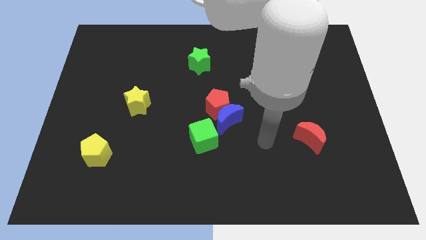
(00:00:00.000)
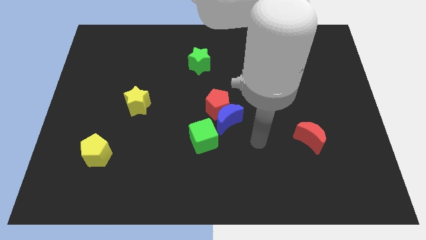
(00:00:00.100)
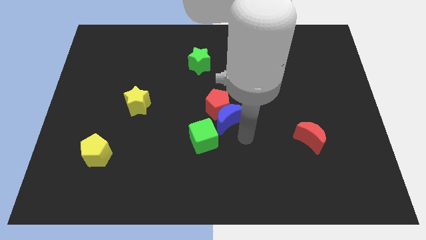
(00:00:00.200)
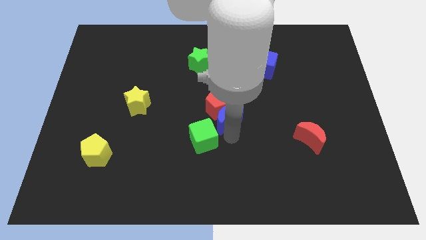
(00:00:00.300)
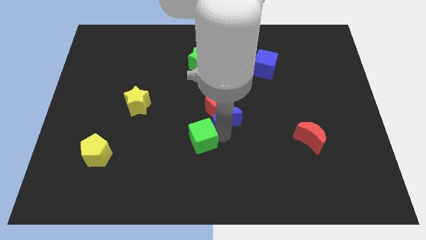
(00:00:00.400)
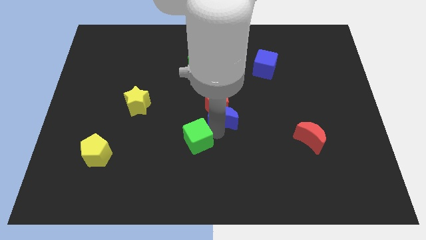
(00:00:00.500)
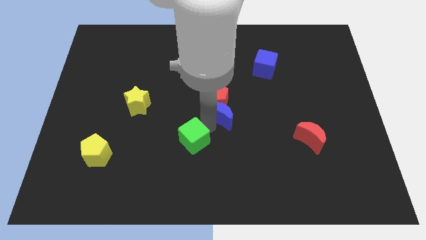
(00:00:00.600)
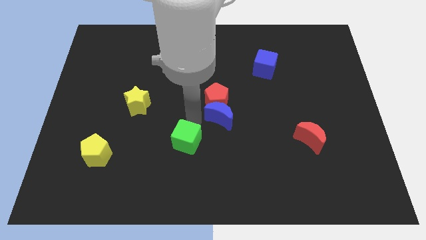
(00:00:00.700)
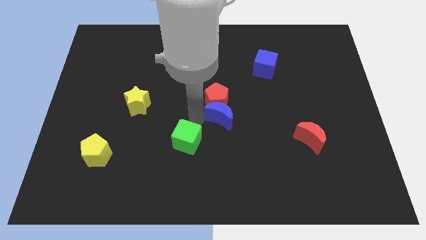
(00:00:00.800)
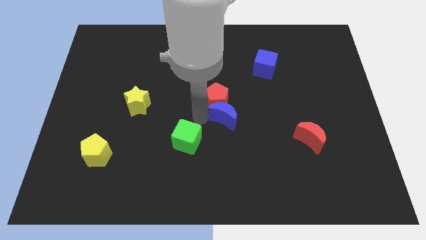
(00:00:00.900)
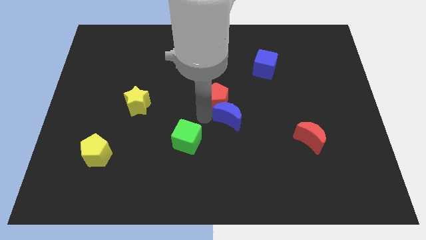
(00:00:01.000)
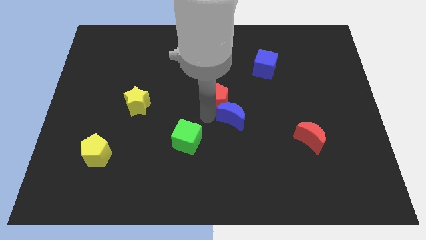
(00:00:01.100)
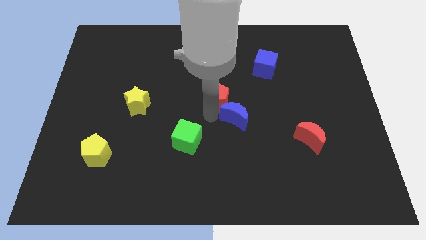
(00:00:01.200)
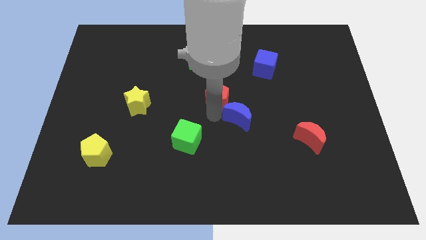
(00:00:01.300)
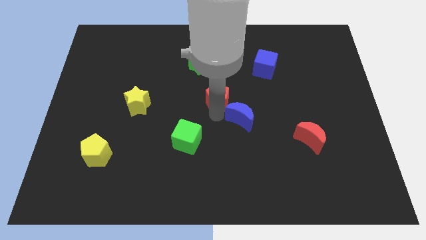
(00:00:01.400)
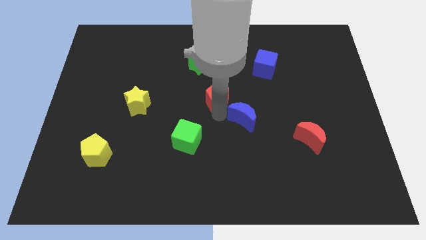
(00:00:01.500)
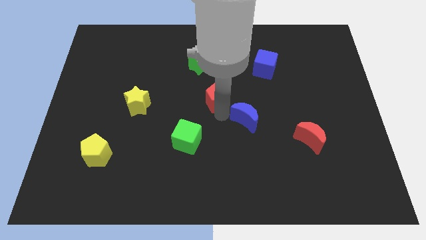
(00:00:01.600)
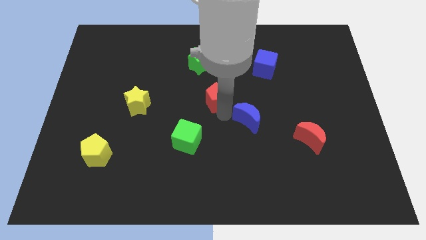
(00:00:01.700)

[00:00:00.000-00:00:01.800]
separate the blue moon from the red pentagon and green cube

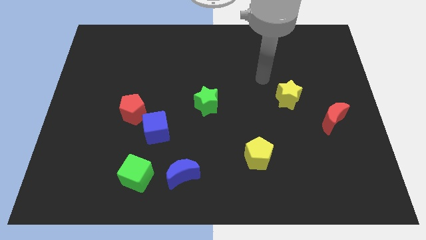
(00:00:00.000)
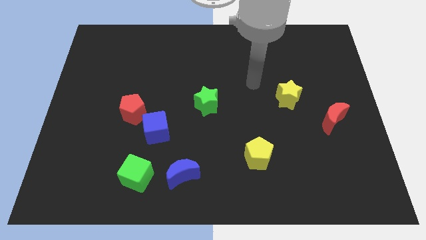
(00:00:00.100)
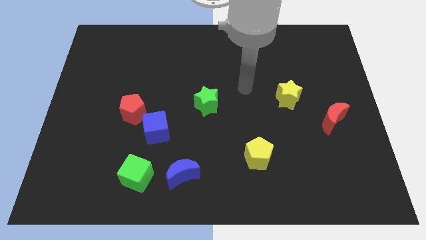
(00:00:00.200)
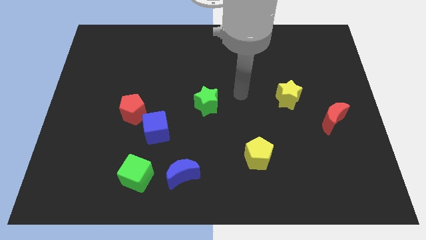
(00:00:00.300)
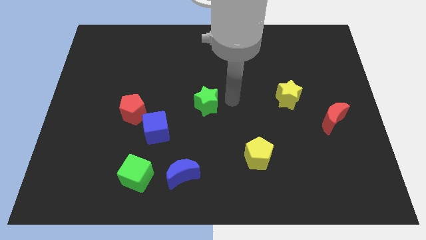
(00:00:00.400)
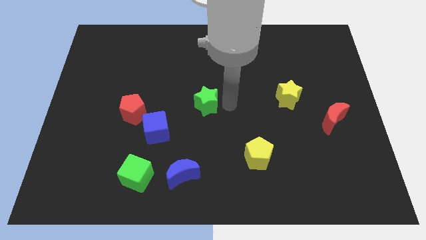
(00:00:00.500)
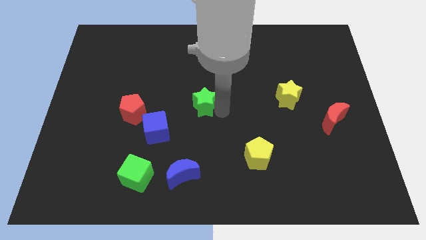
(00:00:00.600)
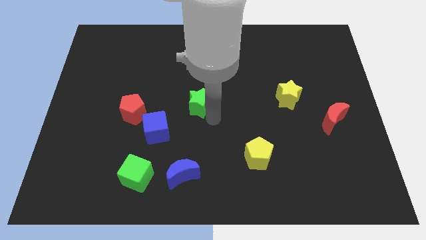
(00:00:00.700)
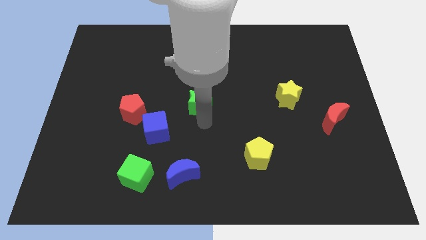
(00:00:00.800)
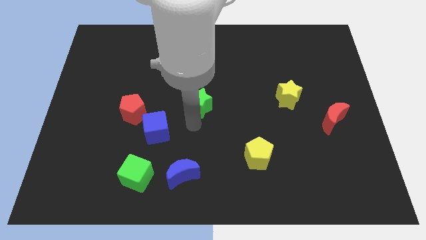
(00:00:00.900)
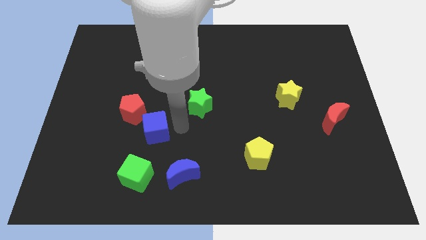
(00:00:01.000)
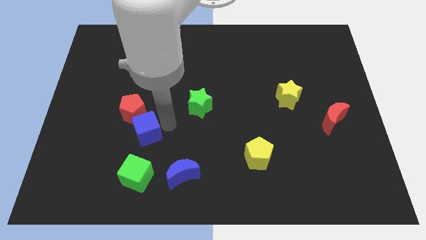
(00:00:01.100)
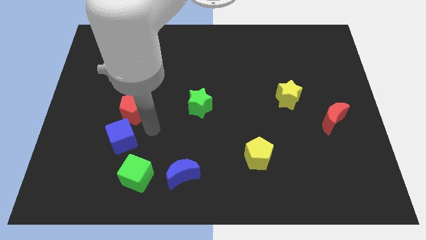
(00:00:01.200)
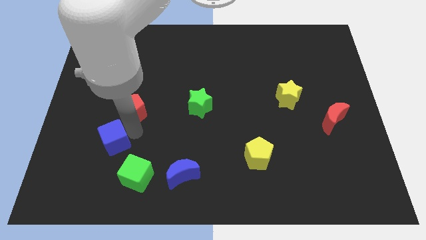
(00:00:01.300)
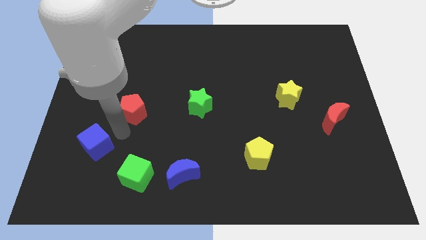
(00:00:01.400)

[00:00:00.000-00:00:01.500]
separate the red pentagon from the blue cube

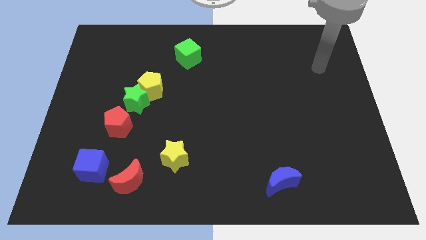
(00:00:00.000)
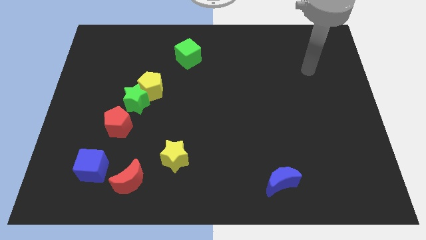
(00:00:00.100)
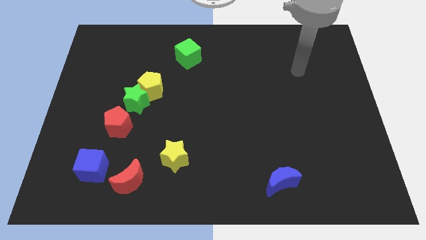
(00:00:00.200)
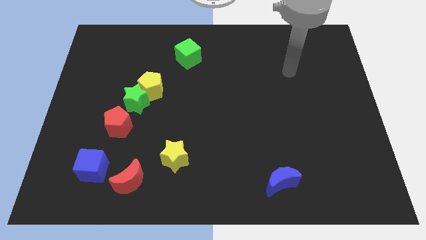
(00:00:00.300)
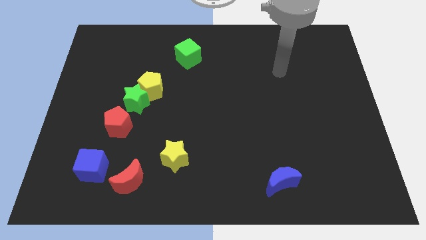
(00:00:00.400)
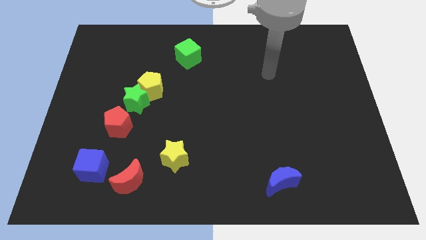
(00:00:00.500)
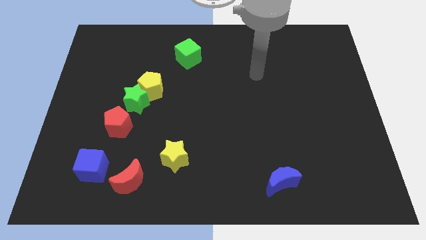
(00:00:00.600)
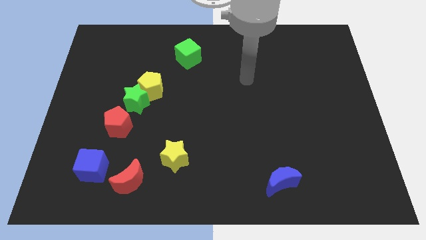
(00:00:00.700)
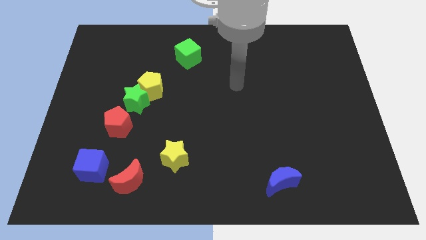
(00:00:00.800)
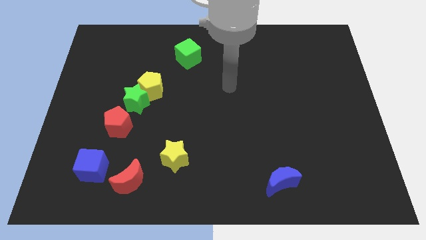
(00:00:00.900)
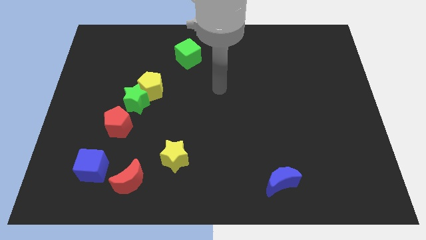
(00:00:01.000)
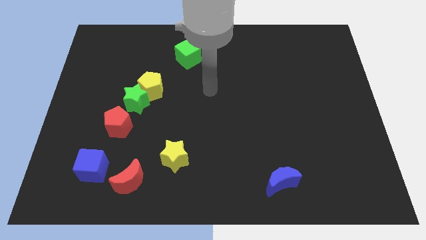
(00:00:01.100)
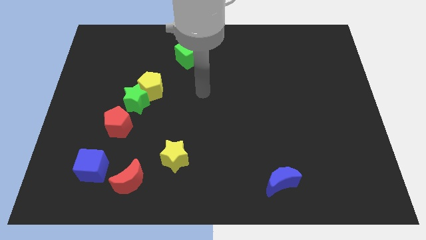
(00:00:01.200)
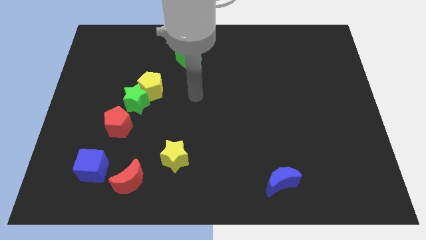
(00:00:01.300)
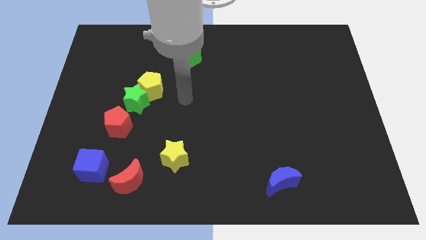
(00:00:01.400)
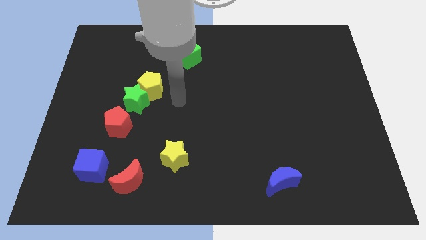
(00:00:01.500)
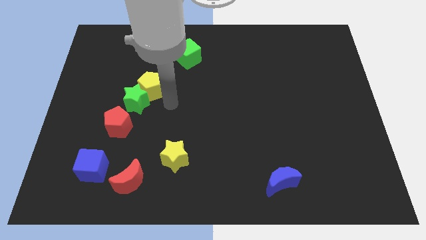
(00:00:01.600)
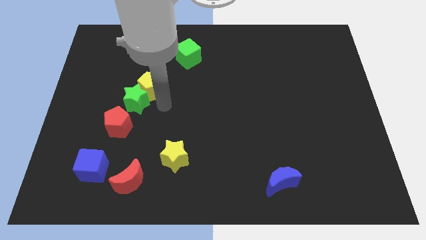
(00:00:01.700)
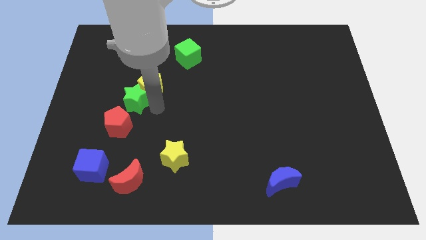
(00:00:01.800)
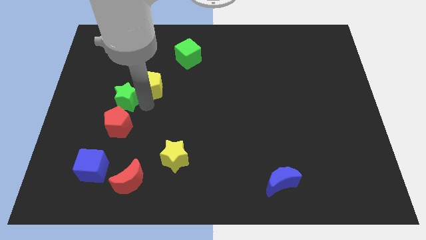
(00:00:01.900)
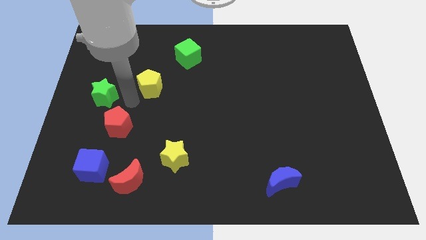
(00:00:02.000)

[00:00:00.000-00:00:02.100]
separate the yellow pentagon from the green star

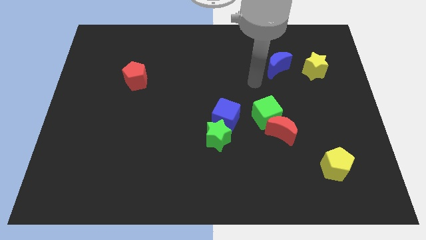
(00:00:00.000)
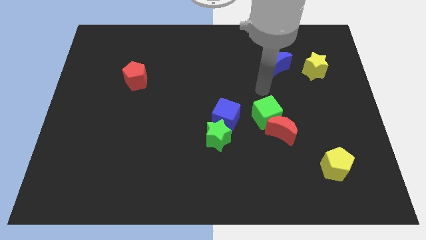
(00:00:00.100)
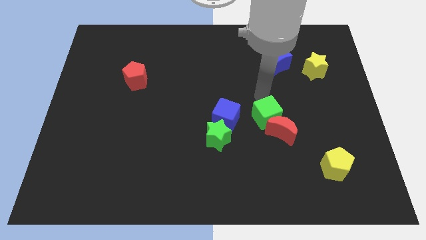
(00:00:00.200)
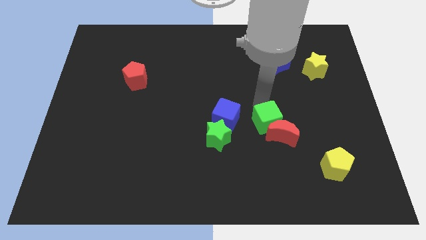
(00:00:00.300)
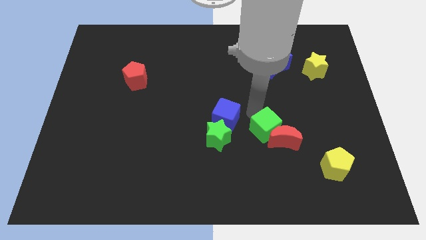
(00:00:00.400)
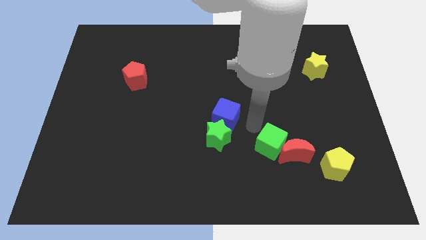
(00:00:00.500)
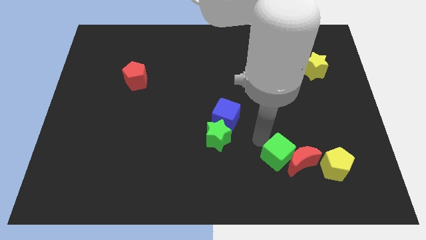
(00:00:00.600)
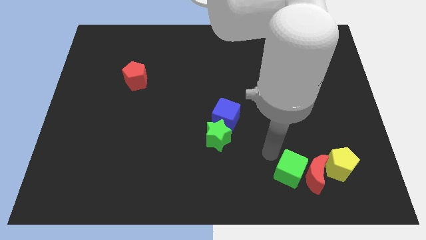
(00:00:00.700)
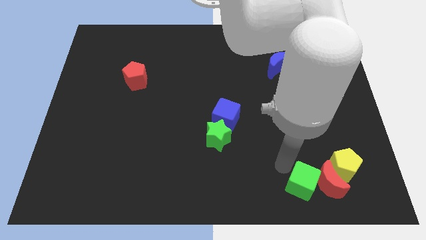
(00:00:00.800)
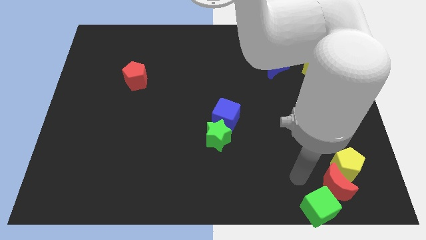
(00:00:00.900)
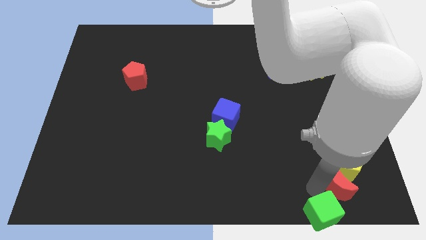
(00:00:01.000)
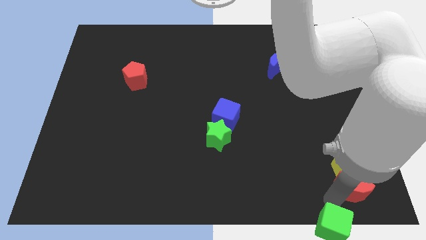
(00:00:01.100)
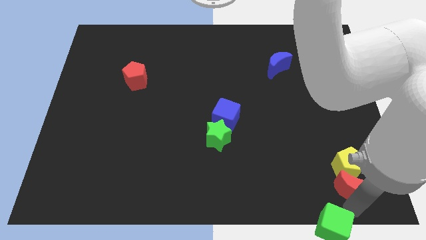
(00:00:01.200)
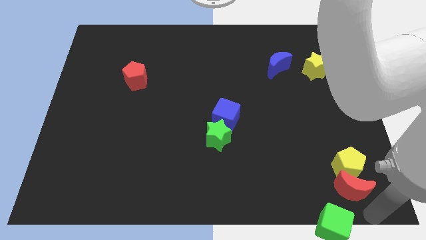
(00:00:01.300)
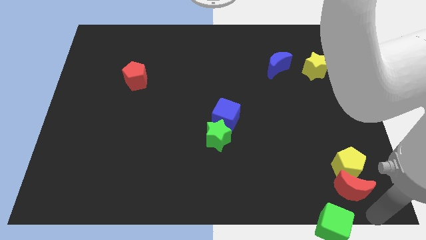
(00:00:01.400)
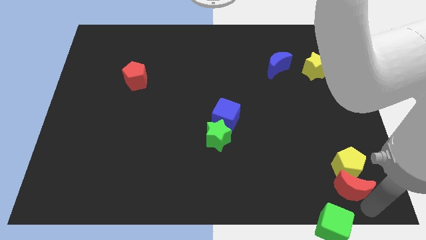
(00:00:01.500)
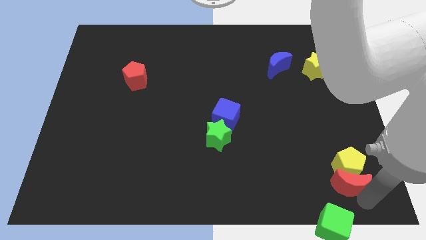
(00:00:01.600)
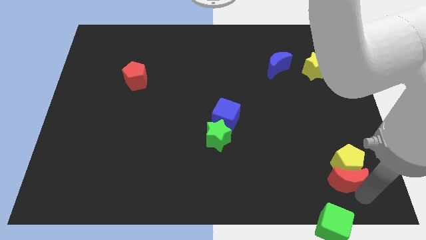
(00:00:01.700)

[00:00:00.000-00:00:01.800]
move the red moon away from the green cube

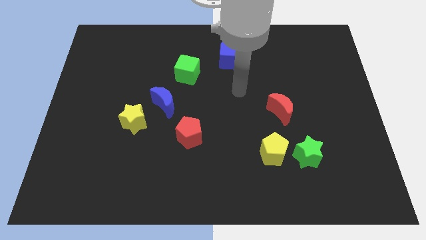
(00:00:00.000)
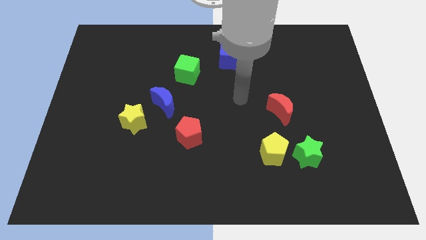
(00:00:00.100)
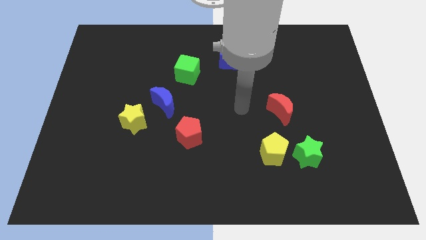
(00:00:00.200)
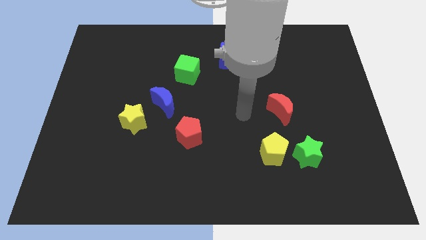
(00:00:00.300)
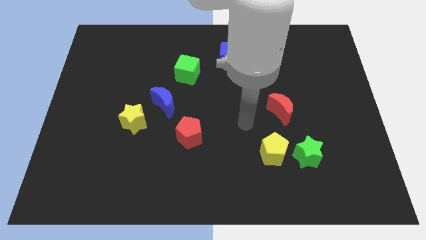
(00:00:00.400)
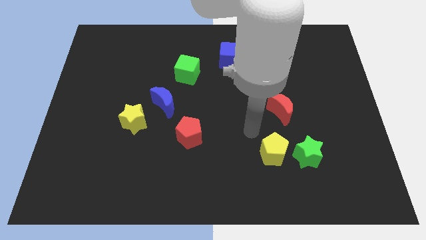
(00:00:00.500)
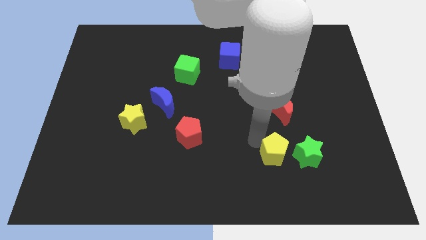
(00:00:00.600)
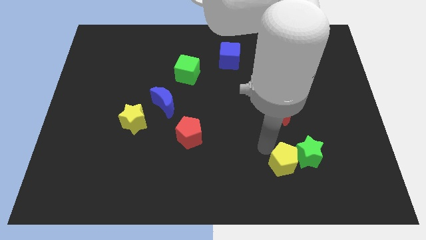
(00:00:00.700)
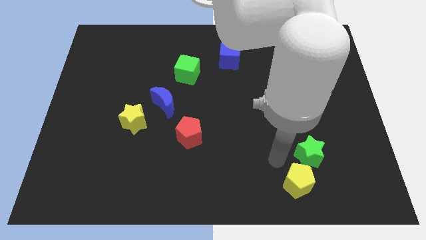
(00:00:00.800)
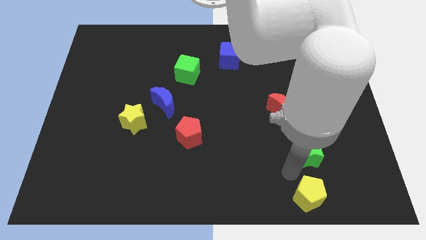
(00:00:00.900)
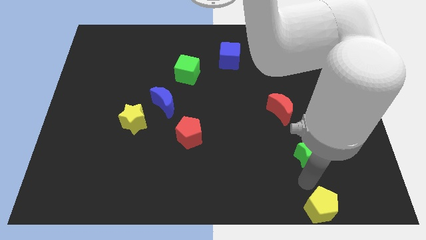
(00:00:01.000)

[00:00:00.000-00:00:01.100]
pull the green star apart from the yellow pentagon

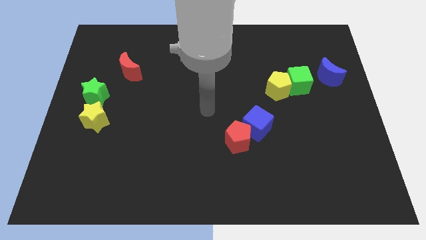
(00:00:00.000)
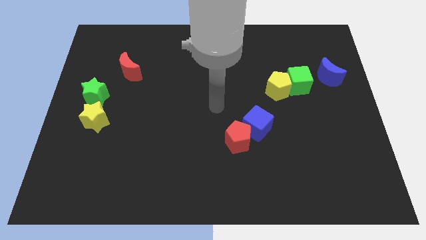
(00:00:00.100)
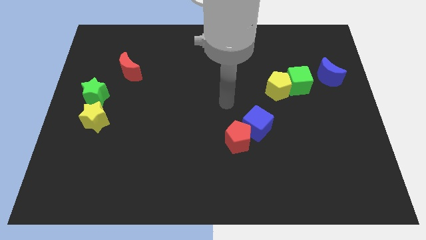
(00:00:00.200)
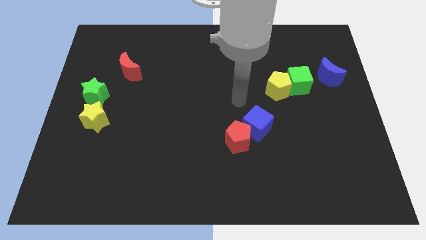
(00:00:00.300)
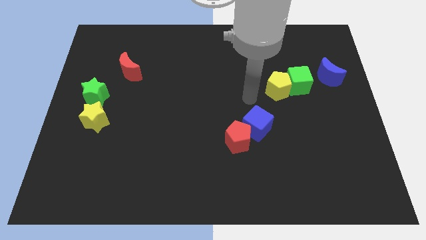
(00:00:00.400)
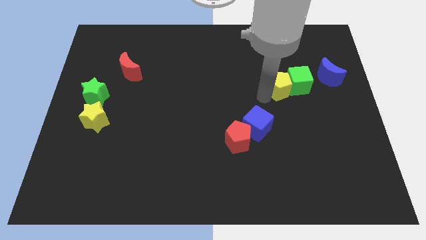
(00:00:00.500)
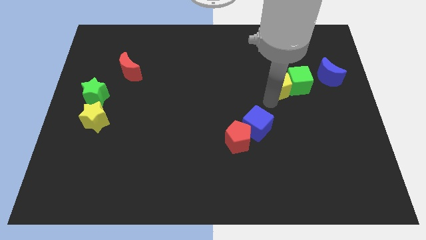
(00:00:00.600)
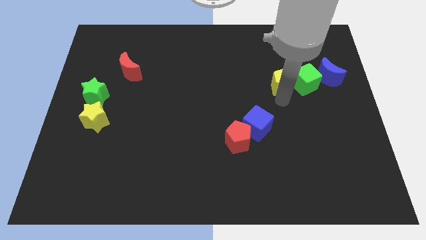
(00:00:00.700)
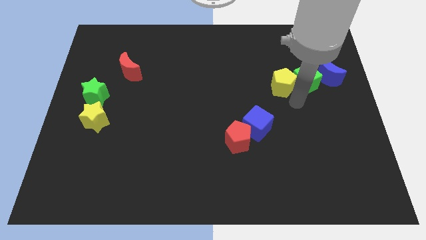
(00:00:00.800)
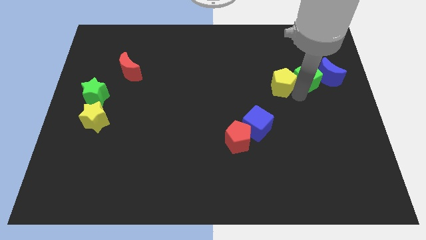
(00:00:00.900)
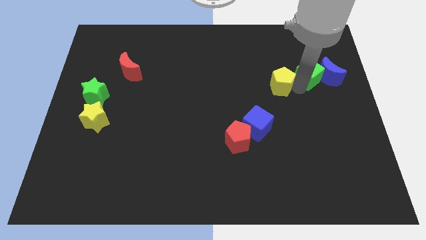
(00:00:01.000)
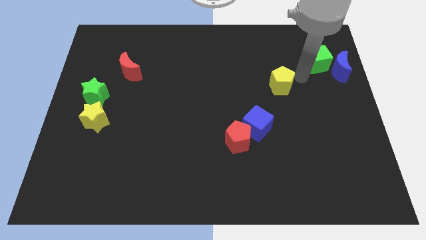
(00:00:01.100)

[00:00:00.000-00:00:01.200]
move the yellow pentagon away from the green cube
